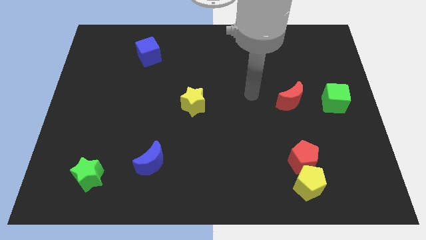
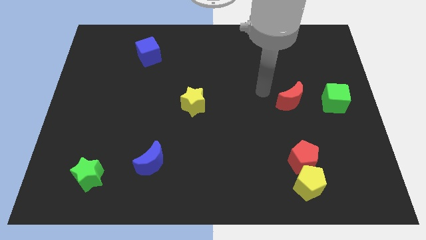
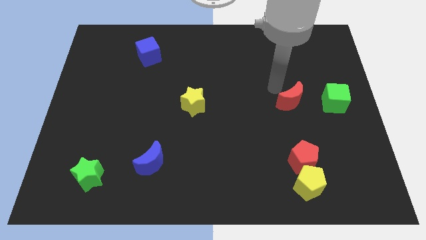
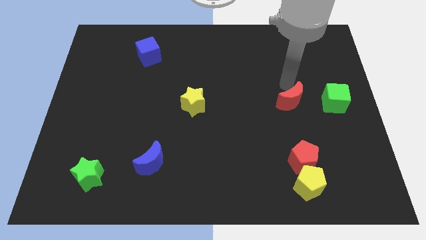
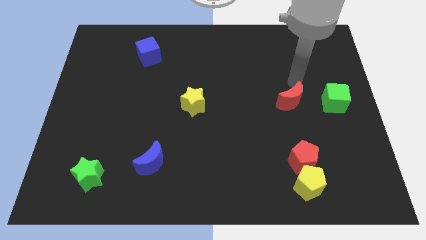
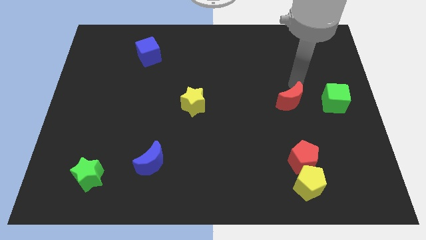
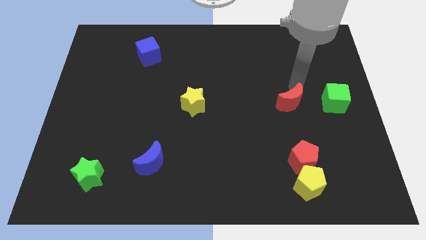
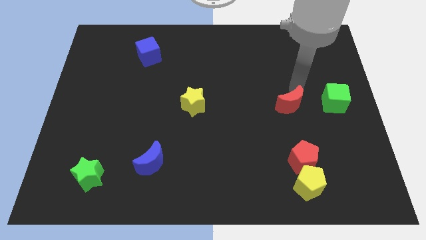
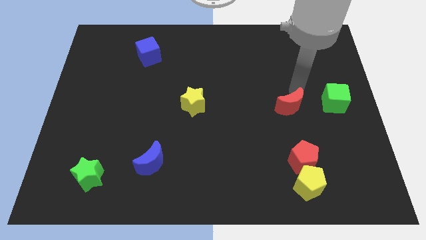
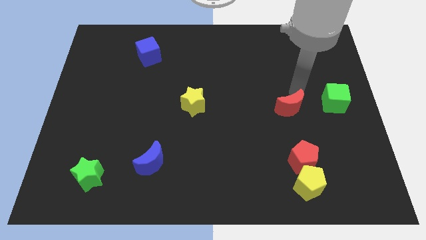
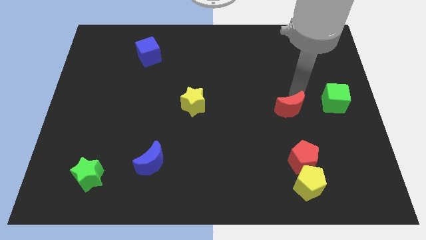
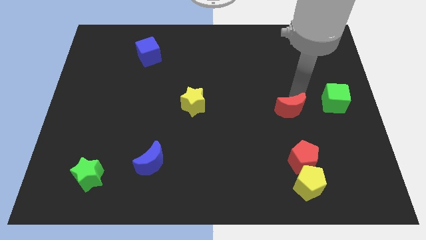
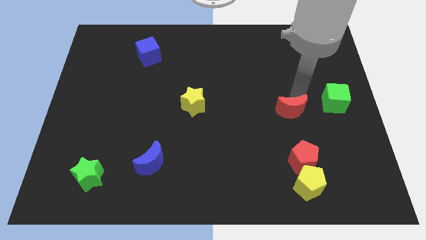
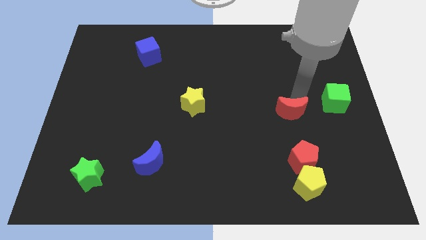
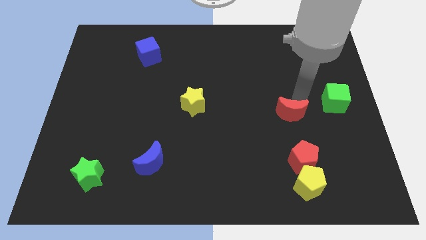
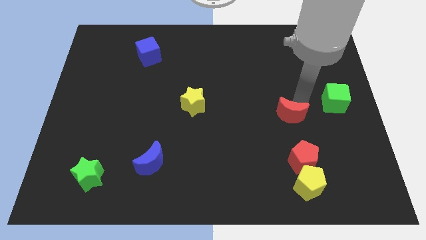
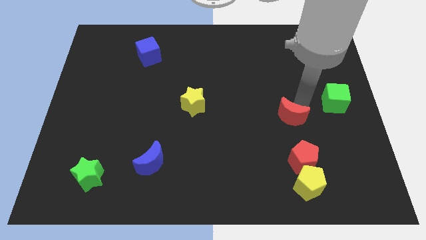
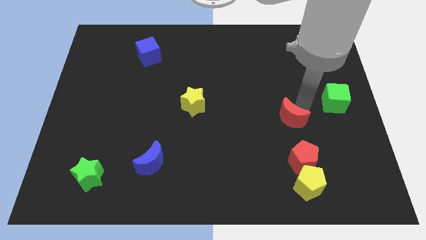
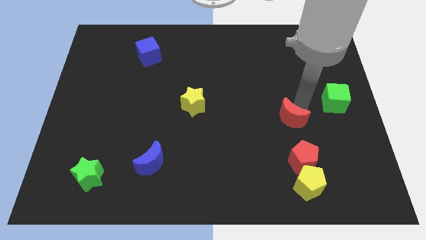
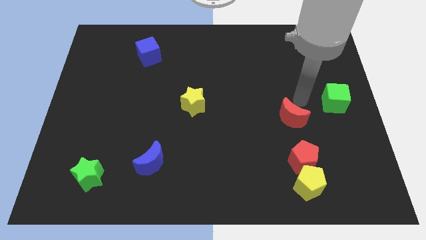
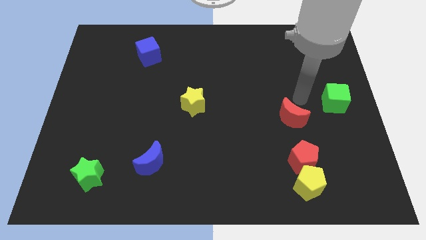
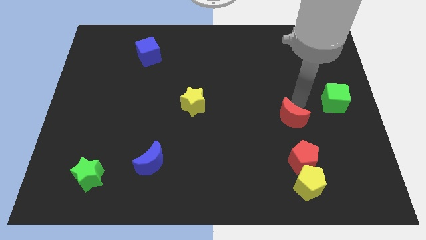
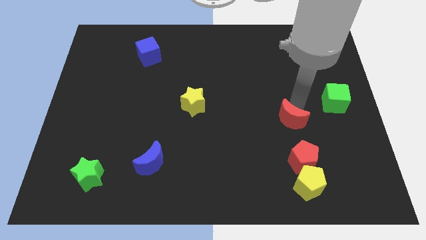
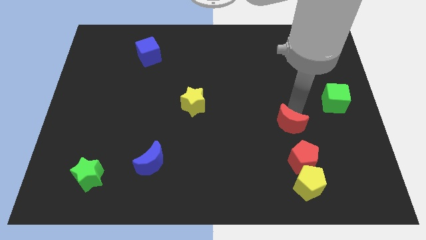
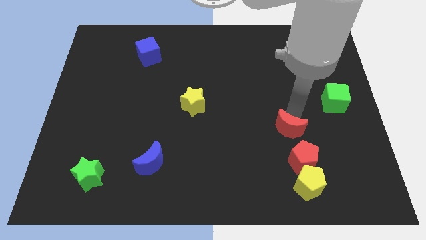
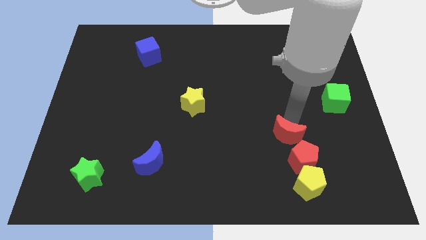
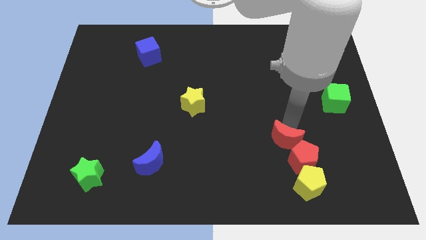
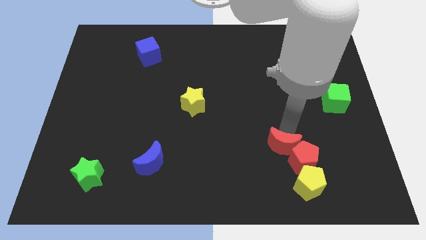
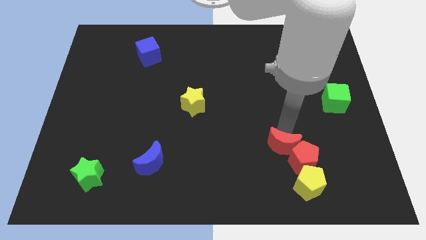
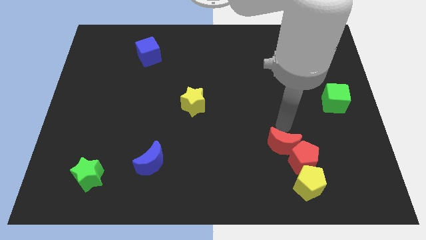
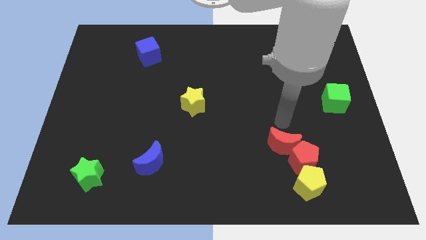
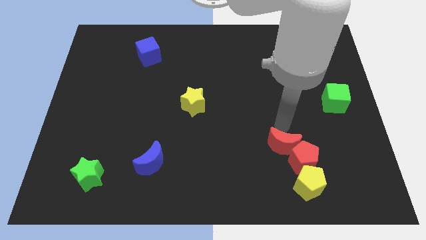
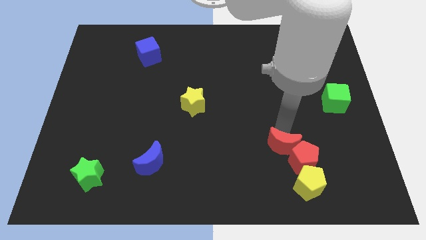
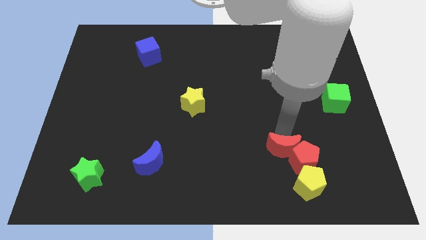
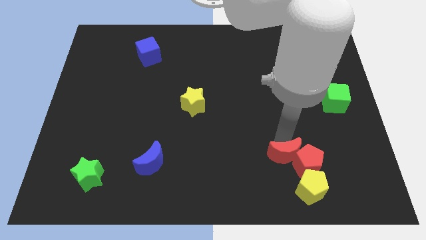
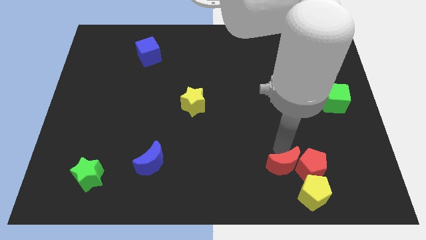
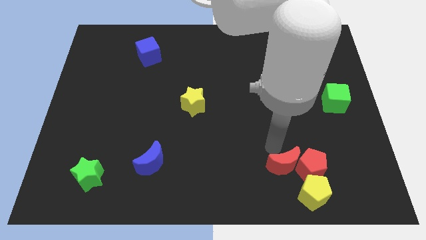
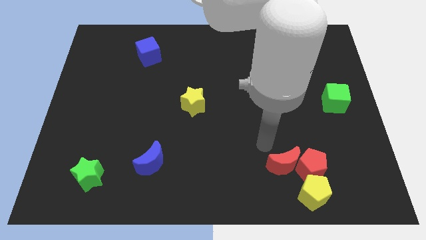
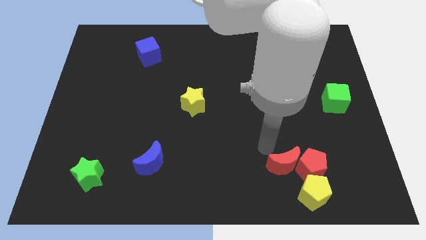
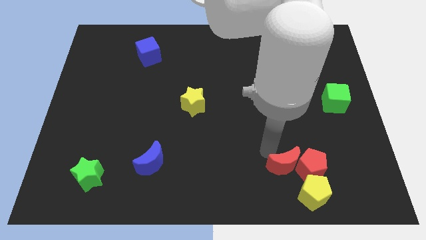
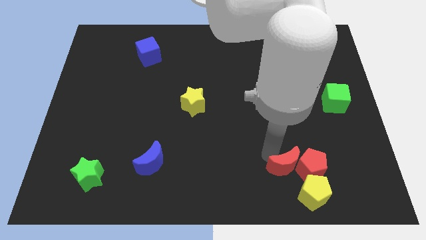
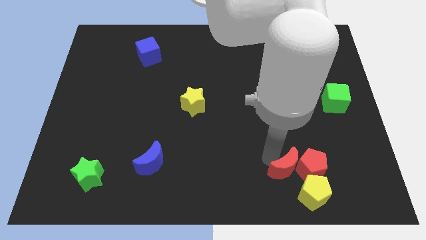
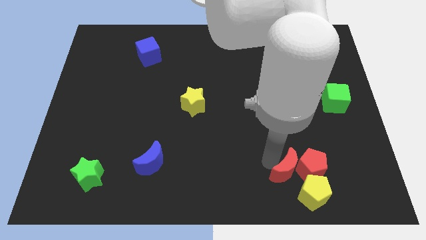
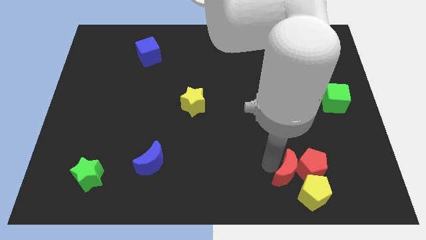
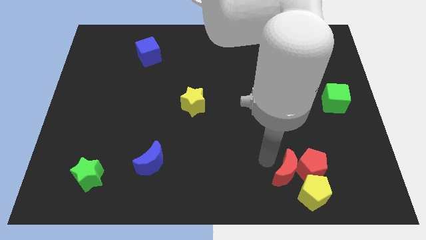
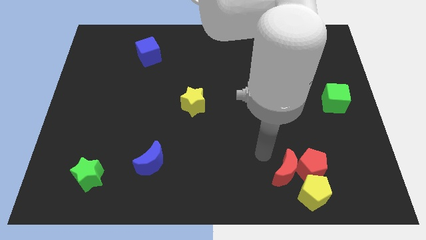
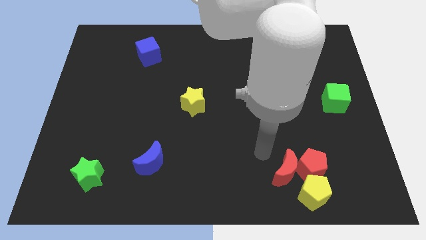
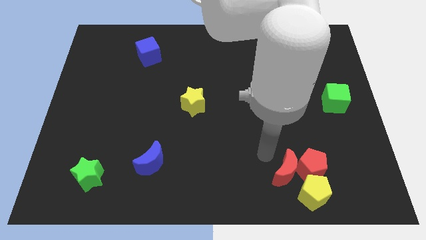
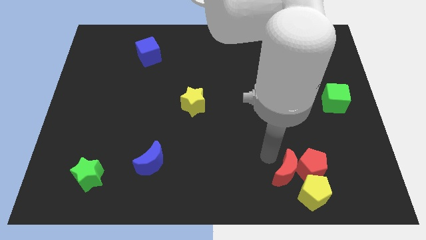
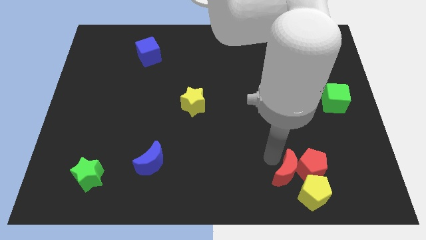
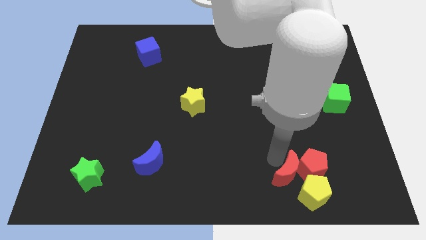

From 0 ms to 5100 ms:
move the red moon next to the yellow pentagon

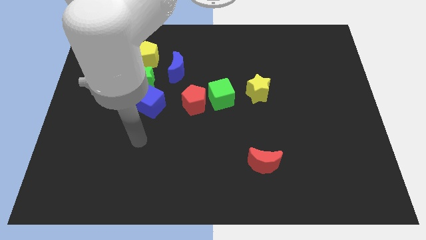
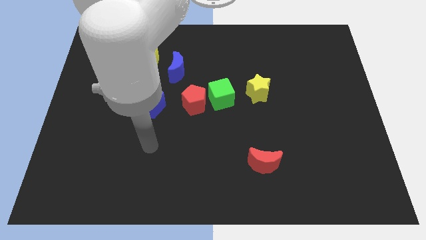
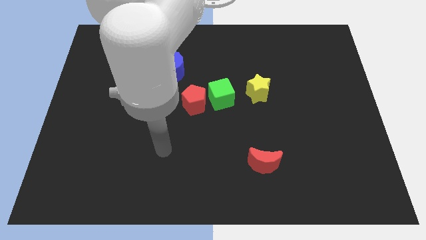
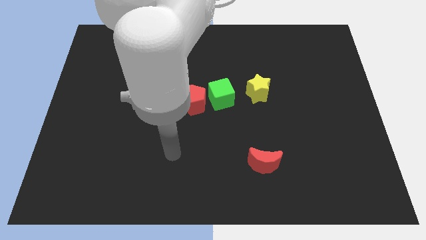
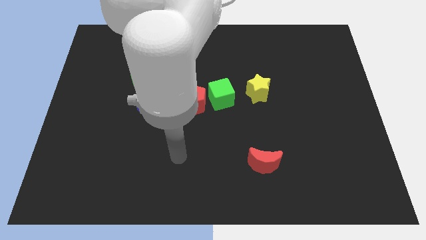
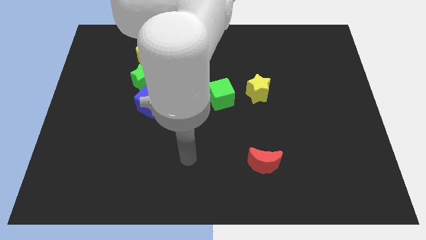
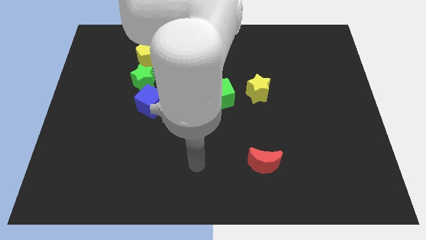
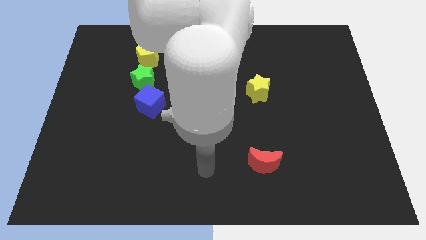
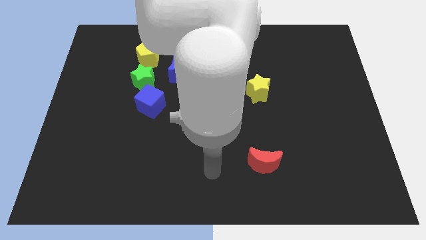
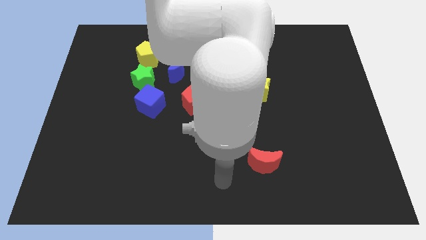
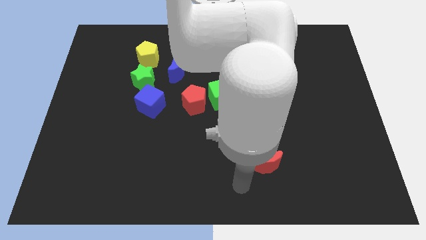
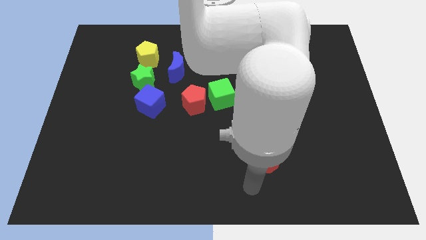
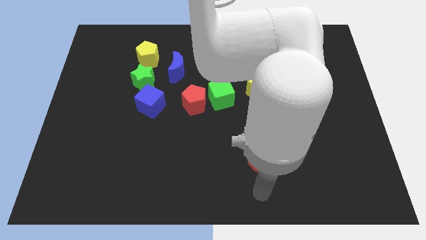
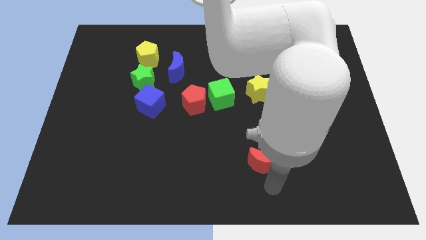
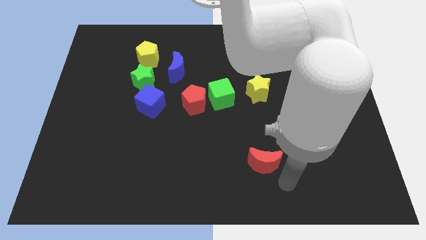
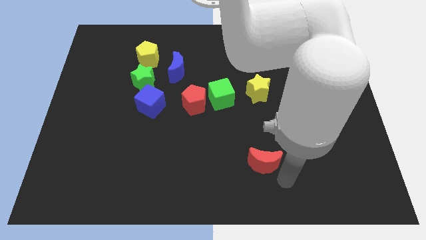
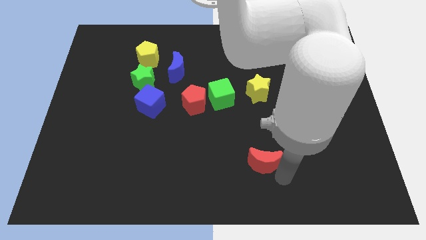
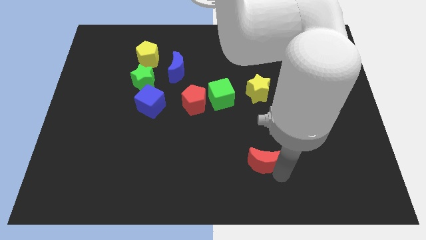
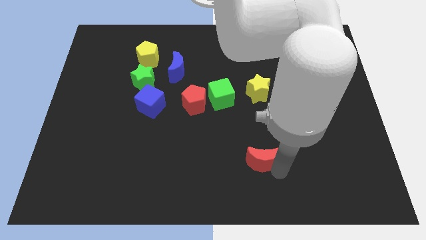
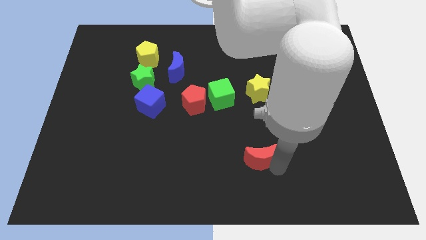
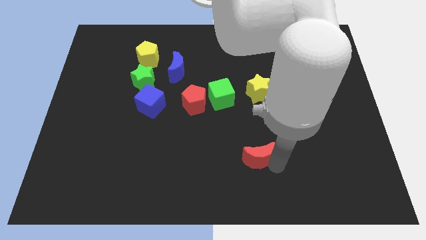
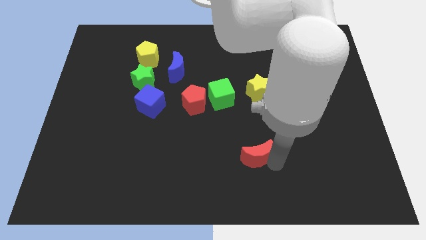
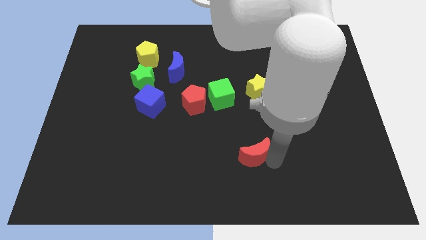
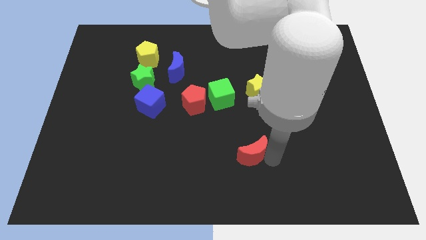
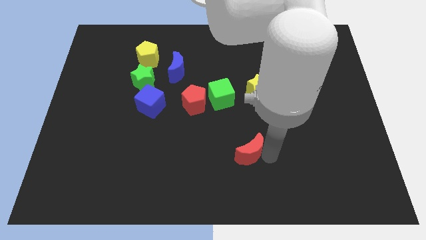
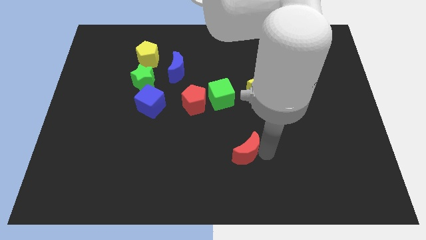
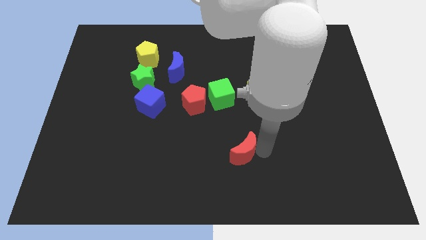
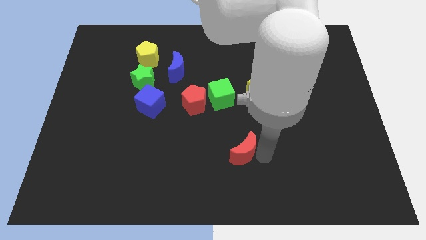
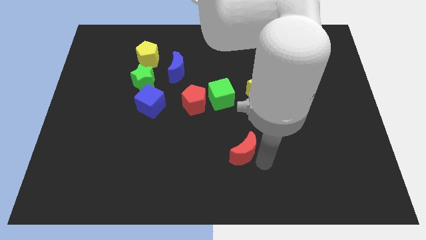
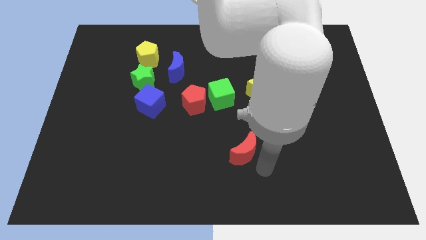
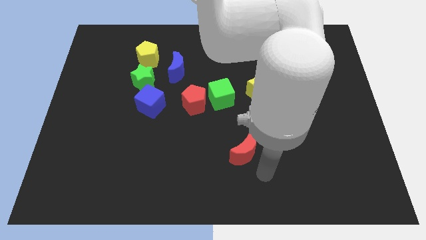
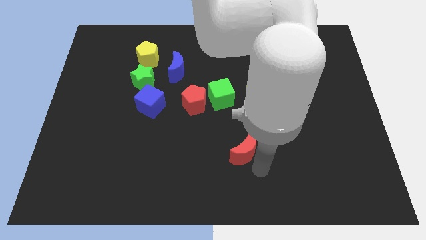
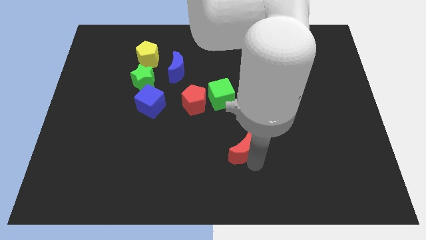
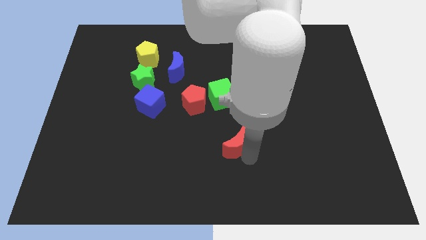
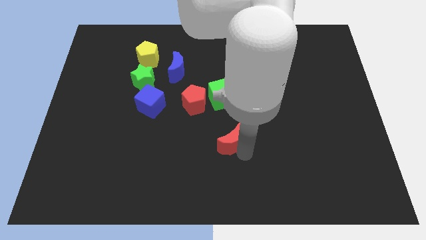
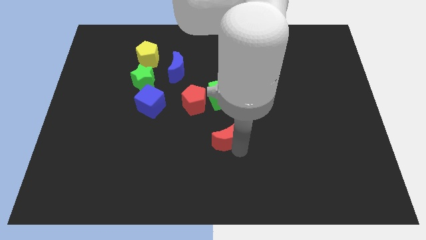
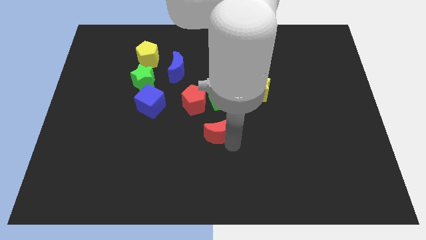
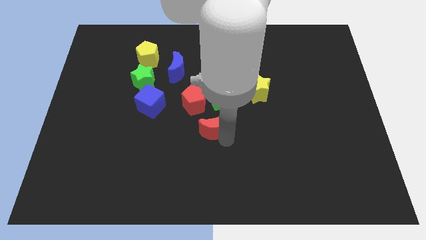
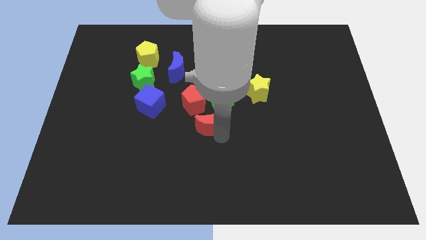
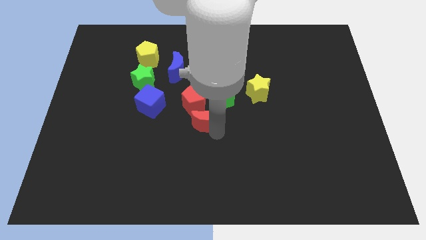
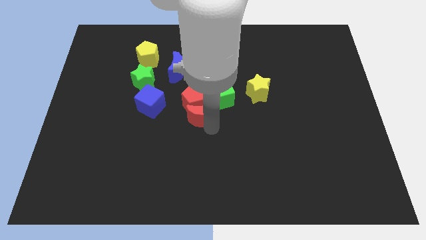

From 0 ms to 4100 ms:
move the red moon close to the red pentagon
